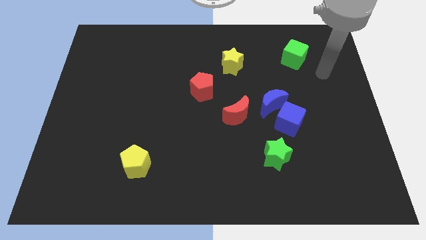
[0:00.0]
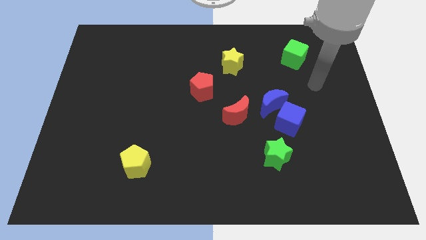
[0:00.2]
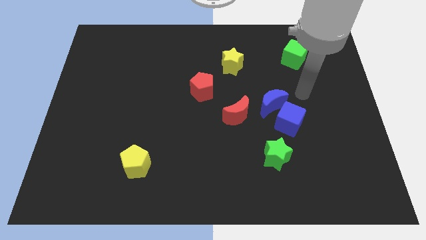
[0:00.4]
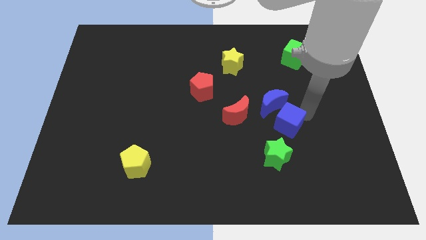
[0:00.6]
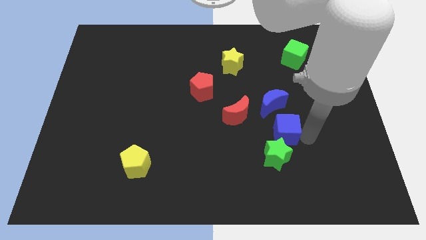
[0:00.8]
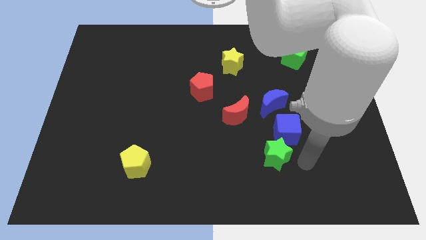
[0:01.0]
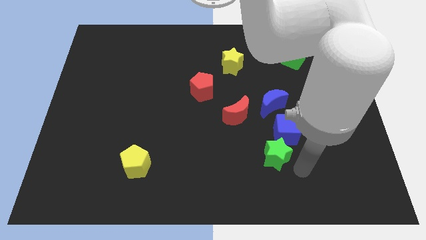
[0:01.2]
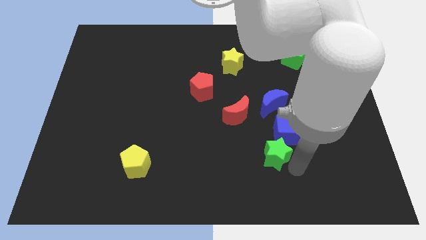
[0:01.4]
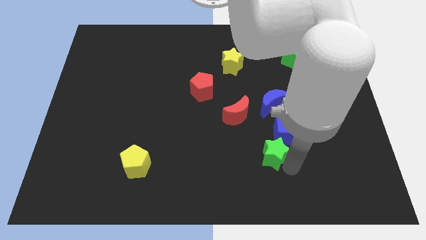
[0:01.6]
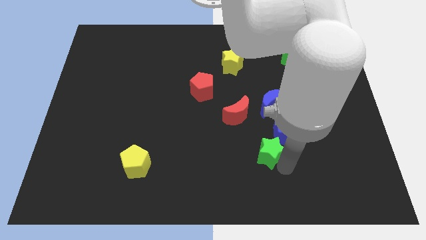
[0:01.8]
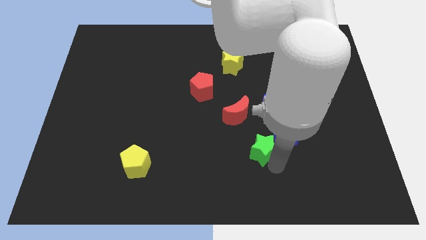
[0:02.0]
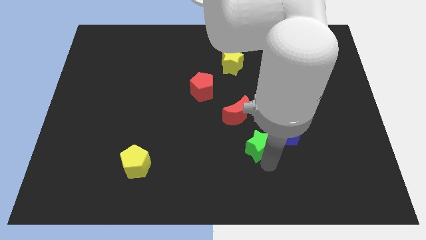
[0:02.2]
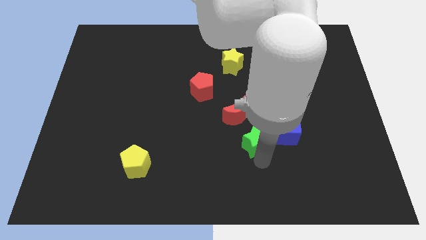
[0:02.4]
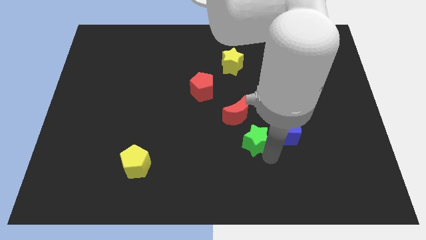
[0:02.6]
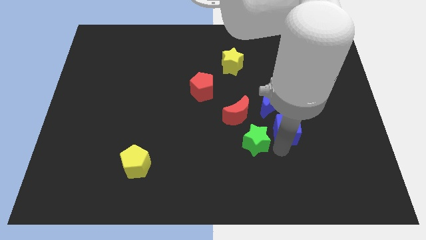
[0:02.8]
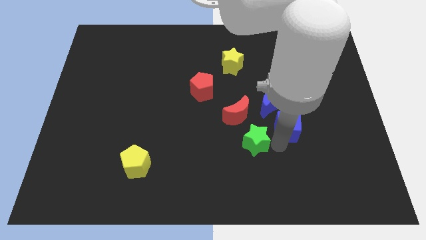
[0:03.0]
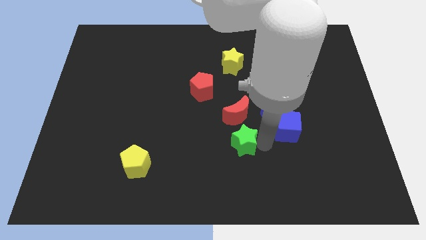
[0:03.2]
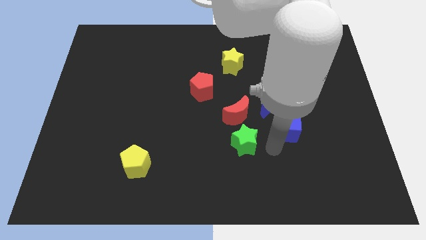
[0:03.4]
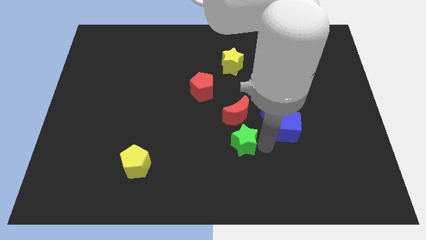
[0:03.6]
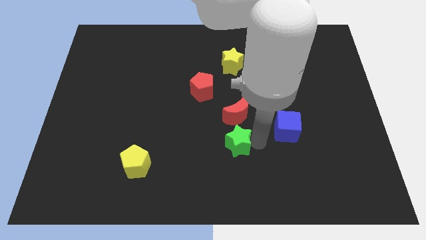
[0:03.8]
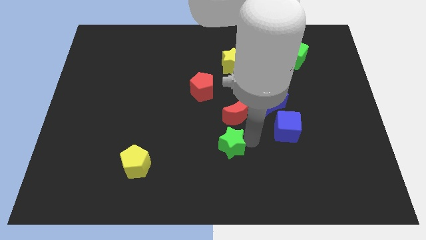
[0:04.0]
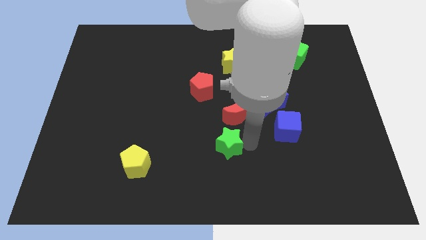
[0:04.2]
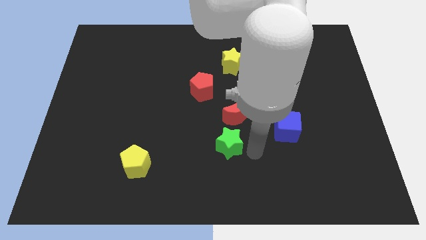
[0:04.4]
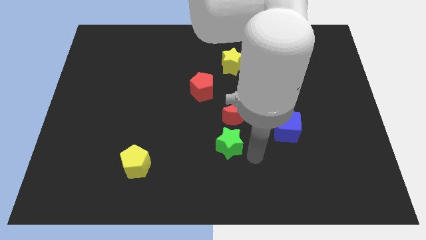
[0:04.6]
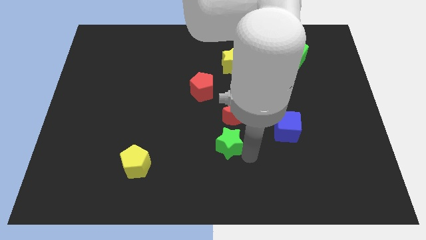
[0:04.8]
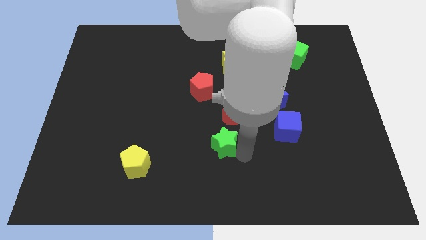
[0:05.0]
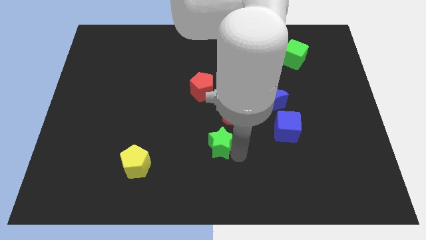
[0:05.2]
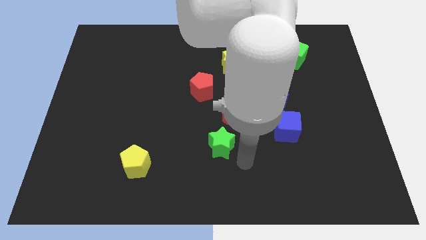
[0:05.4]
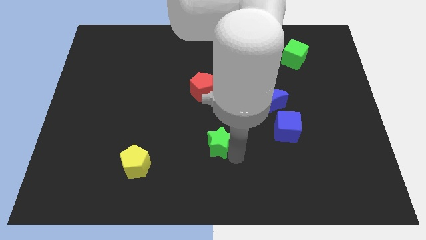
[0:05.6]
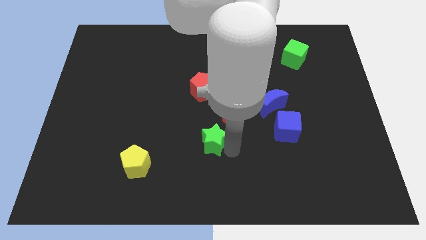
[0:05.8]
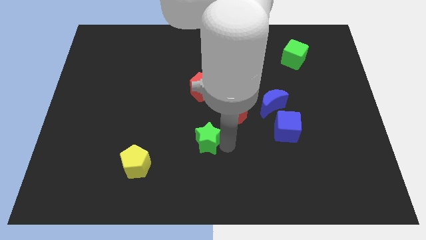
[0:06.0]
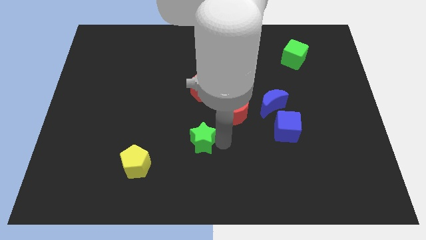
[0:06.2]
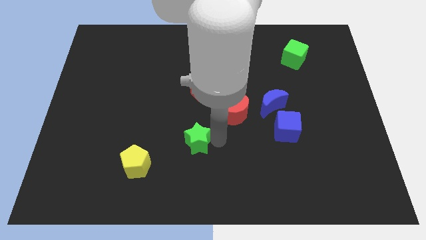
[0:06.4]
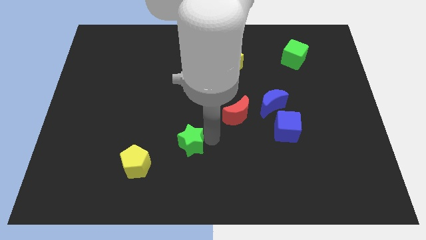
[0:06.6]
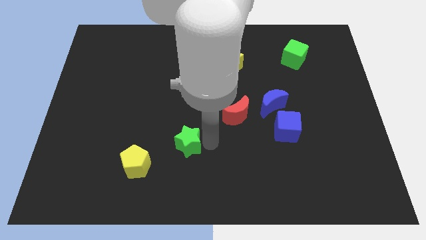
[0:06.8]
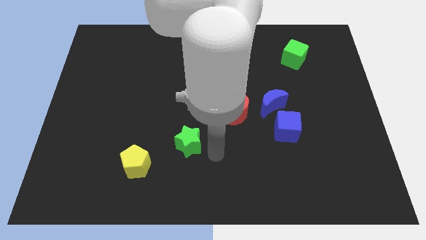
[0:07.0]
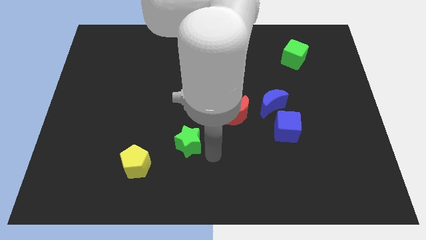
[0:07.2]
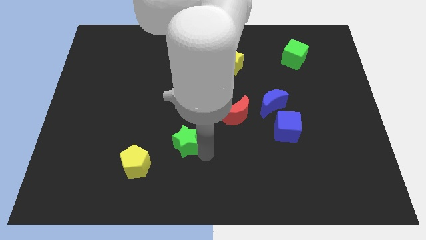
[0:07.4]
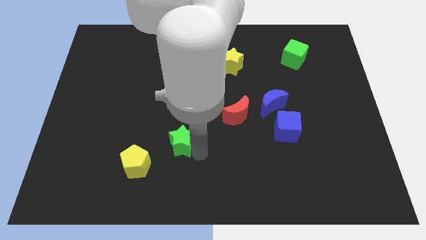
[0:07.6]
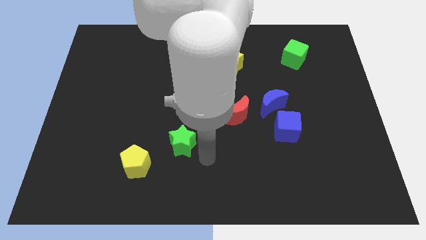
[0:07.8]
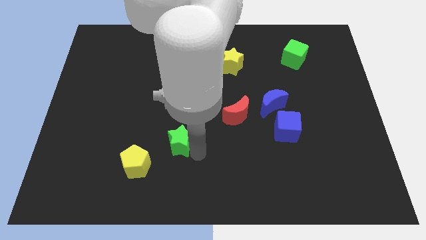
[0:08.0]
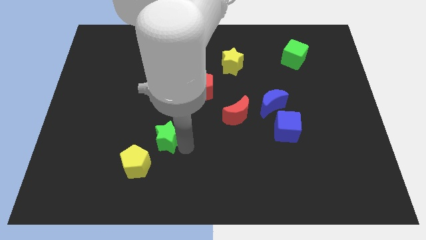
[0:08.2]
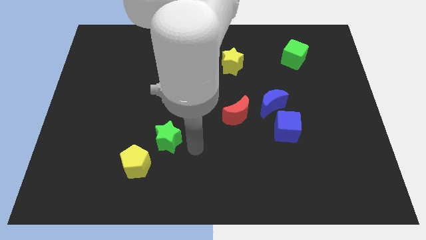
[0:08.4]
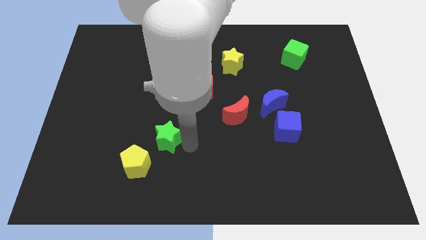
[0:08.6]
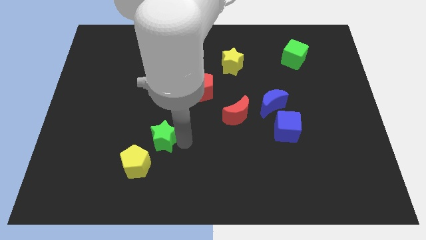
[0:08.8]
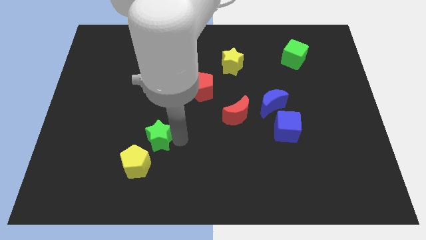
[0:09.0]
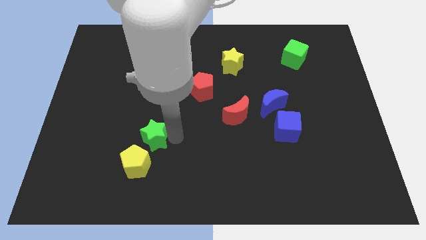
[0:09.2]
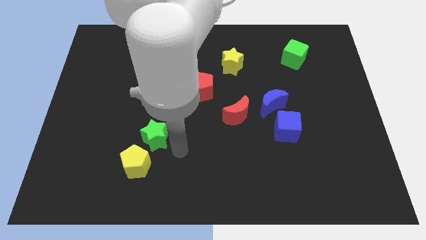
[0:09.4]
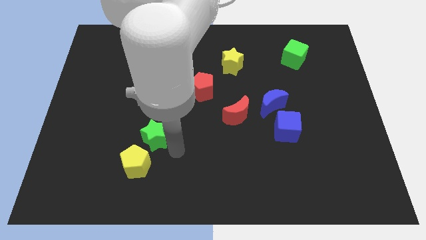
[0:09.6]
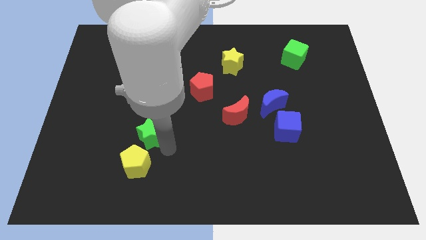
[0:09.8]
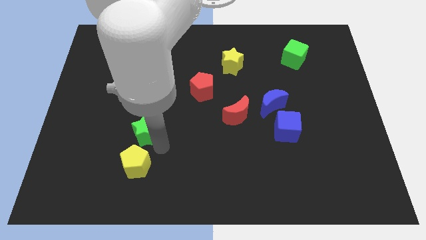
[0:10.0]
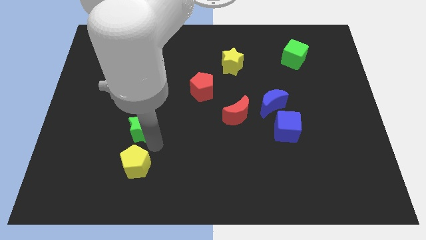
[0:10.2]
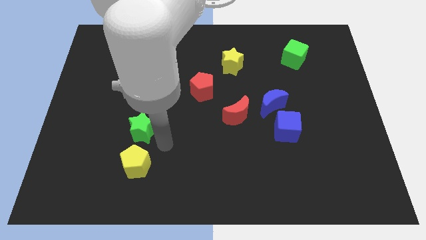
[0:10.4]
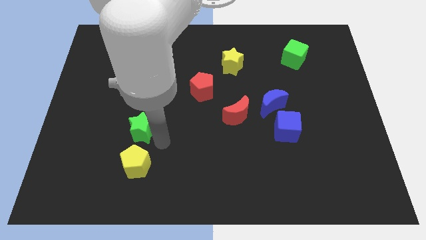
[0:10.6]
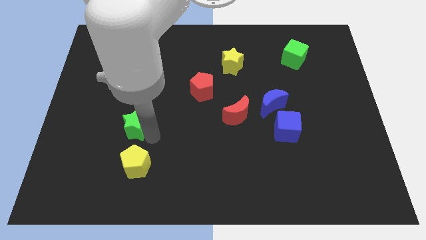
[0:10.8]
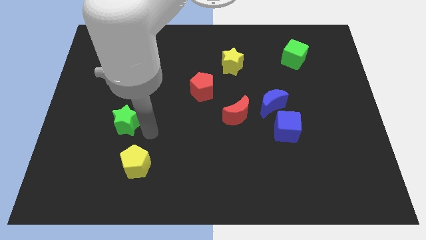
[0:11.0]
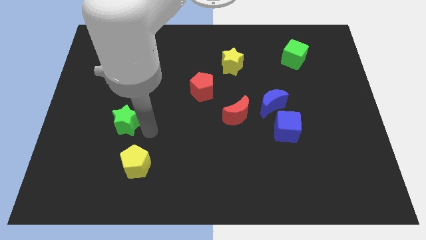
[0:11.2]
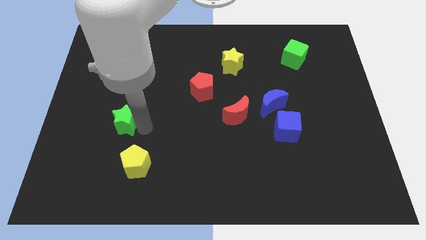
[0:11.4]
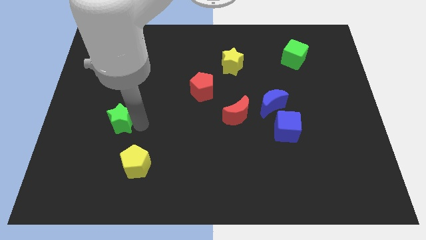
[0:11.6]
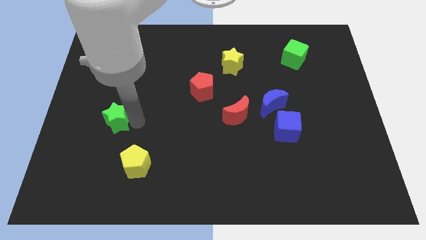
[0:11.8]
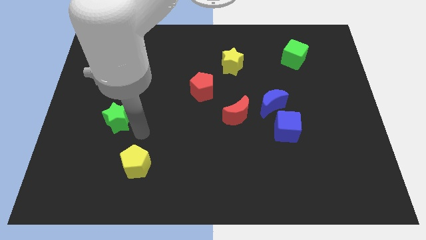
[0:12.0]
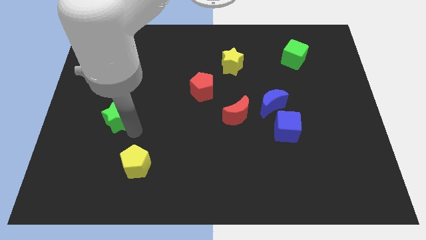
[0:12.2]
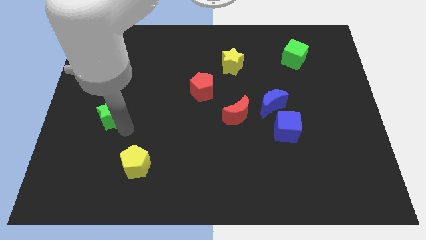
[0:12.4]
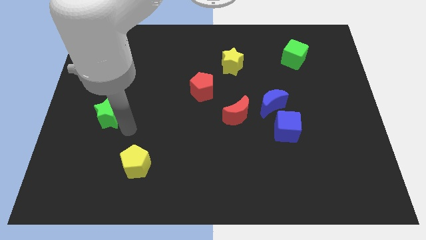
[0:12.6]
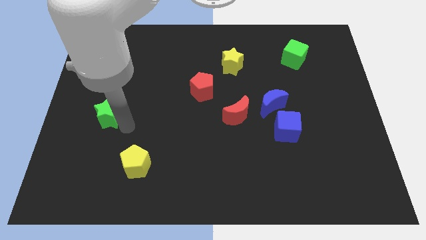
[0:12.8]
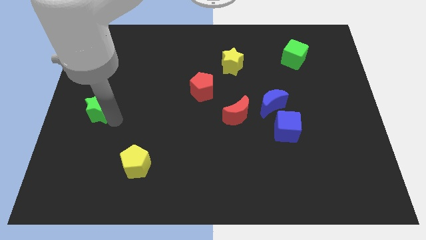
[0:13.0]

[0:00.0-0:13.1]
move the green star to the center left

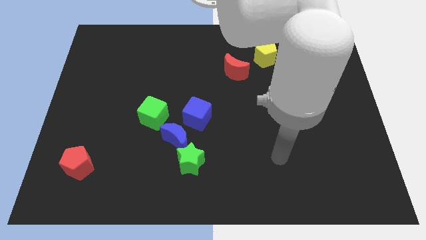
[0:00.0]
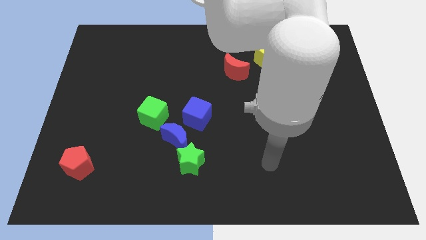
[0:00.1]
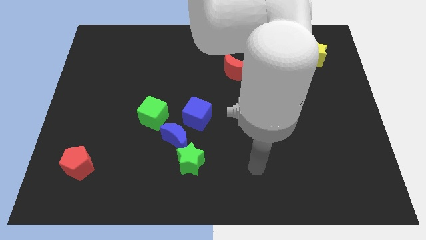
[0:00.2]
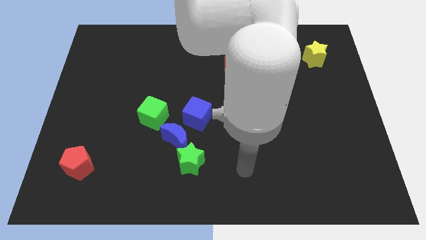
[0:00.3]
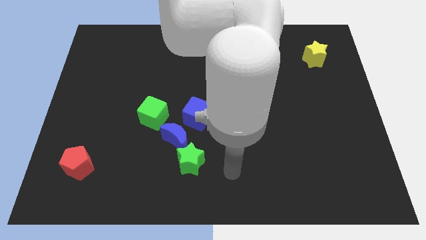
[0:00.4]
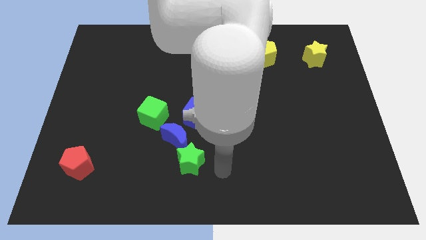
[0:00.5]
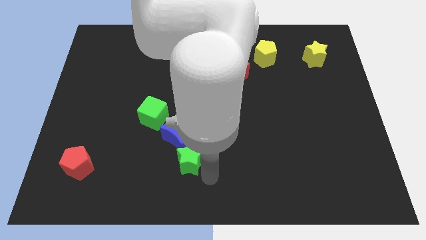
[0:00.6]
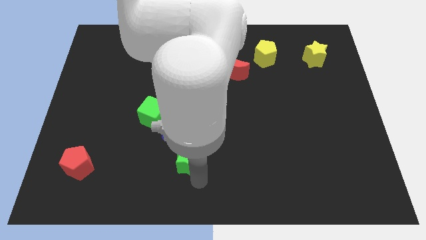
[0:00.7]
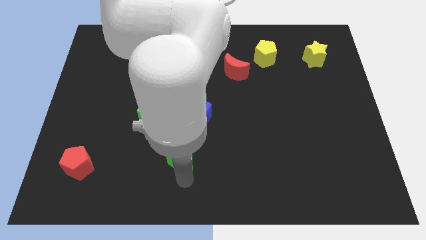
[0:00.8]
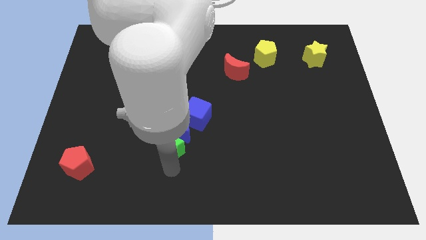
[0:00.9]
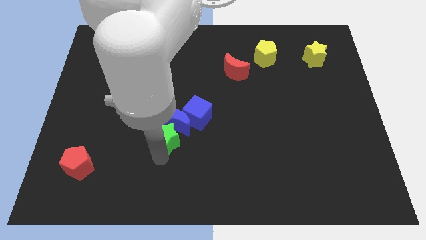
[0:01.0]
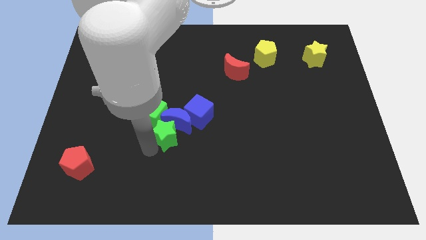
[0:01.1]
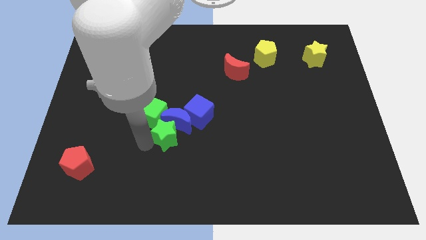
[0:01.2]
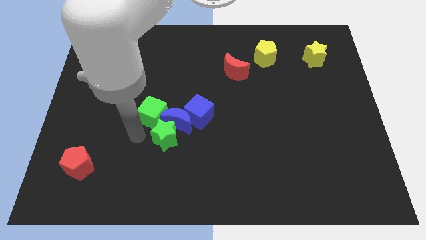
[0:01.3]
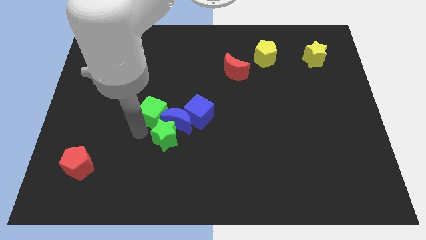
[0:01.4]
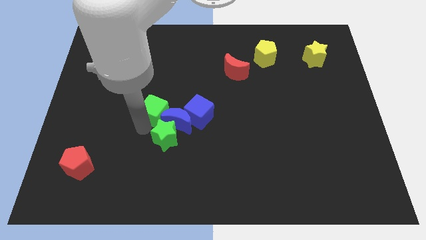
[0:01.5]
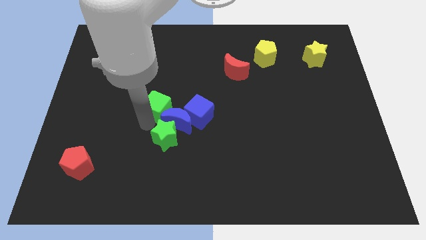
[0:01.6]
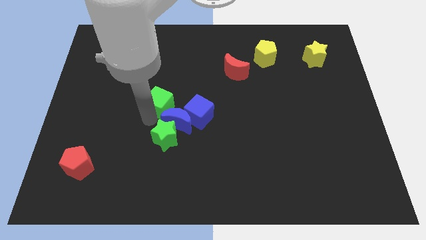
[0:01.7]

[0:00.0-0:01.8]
push the green cube to the center of the board
